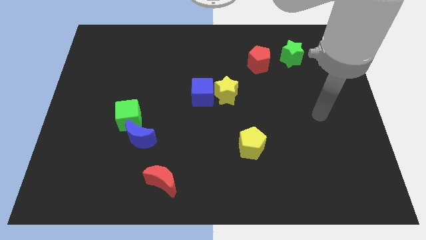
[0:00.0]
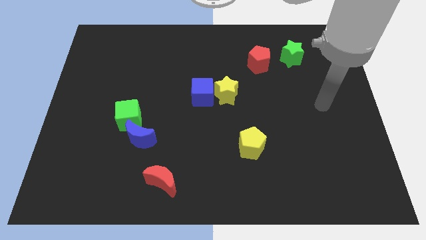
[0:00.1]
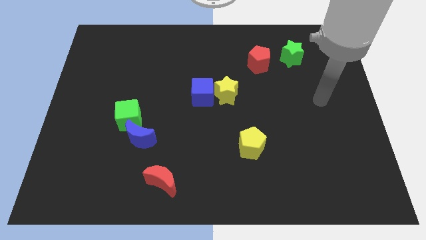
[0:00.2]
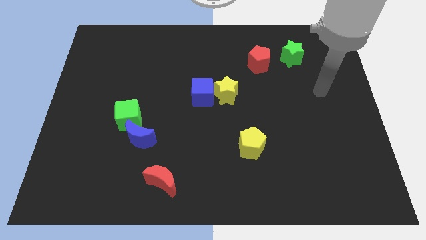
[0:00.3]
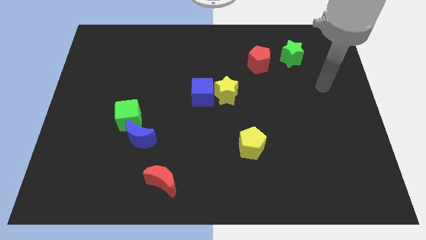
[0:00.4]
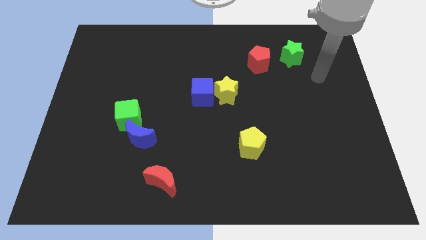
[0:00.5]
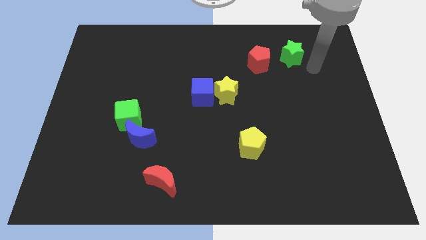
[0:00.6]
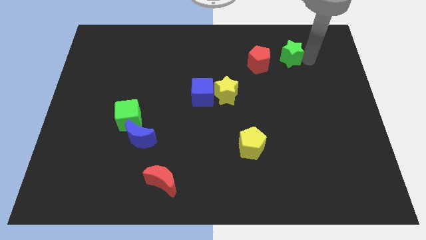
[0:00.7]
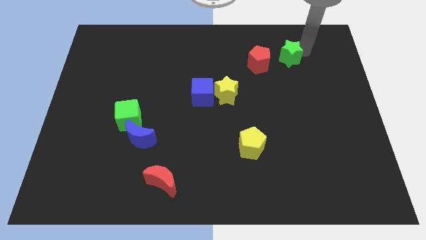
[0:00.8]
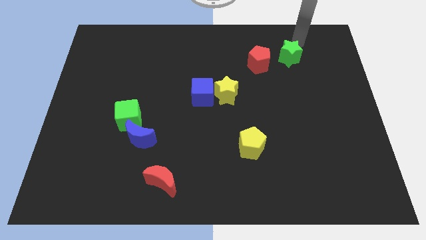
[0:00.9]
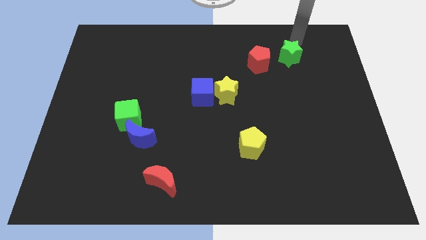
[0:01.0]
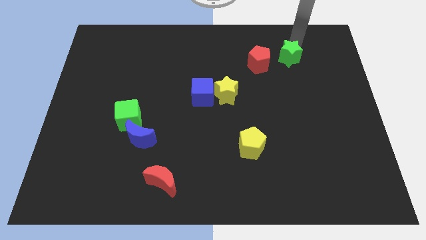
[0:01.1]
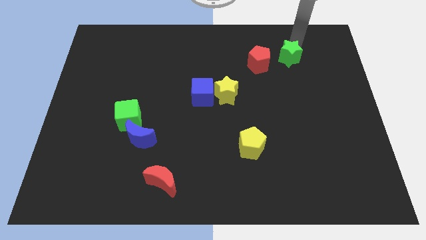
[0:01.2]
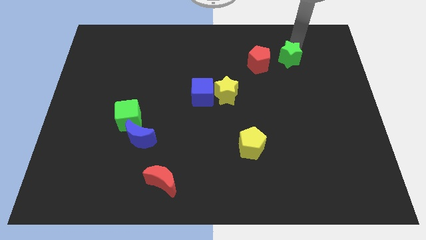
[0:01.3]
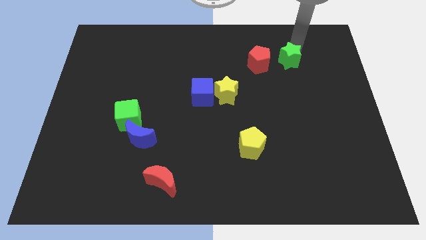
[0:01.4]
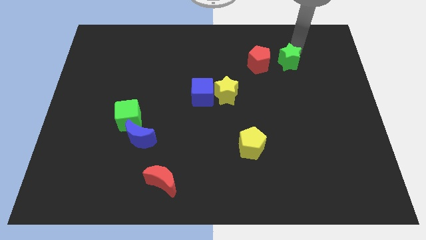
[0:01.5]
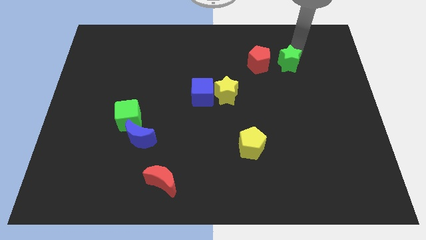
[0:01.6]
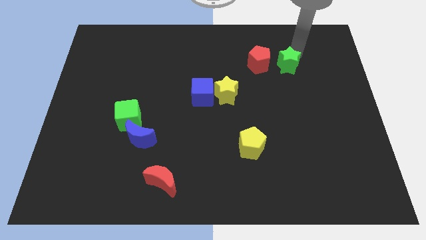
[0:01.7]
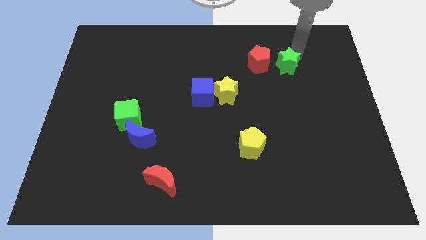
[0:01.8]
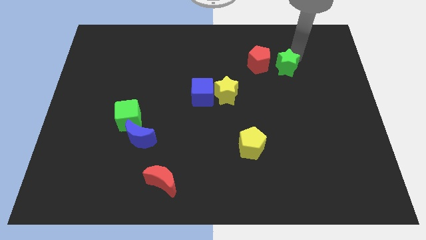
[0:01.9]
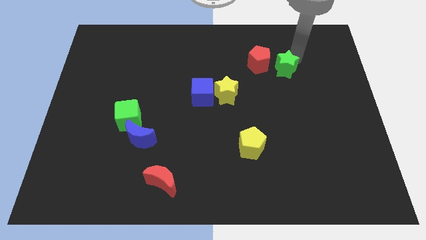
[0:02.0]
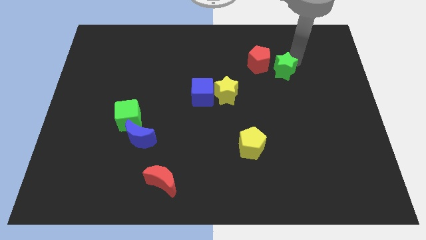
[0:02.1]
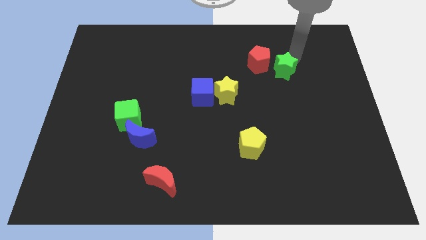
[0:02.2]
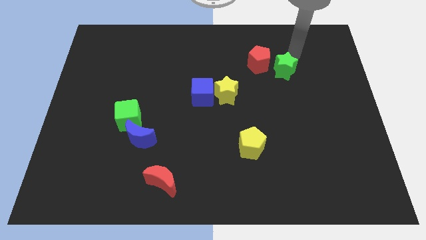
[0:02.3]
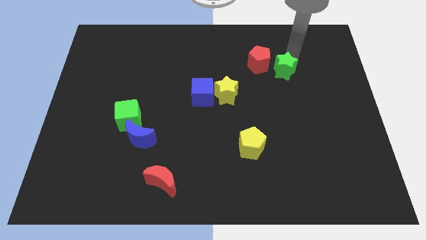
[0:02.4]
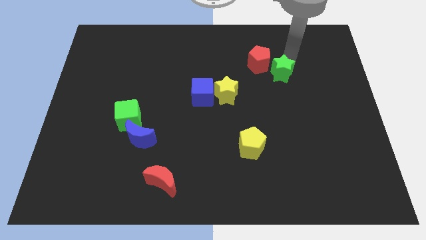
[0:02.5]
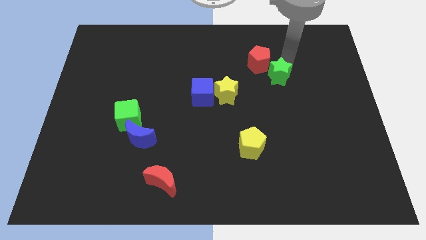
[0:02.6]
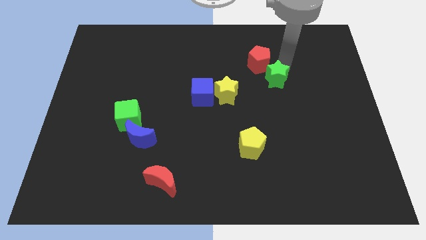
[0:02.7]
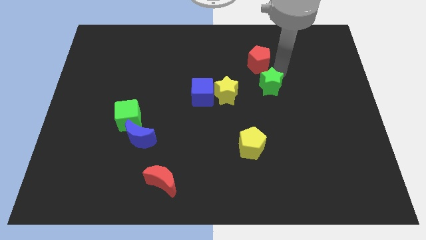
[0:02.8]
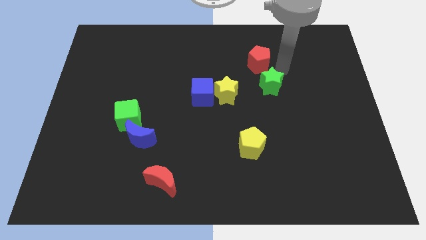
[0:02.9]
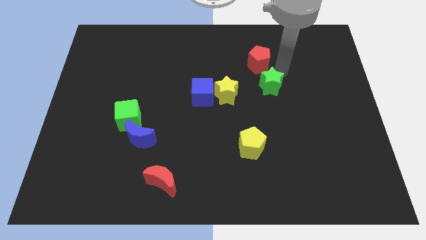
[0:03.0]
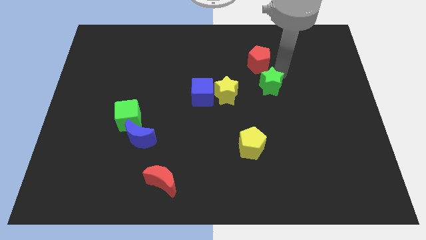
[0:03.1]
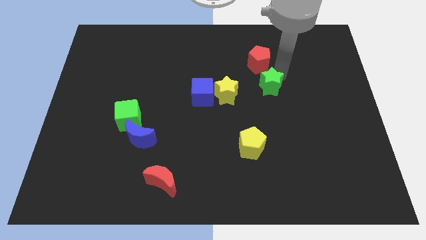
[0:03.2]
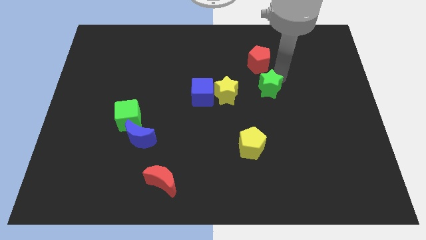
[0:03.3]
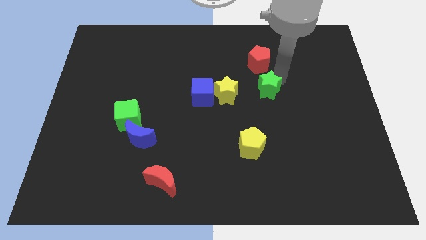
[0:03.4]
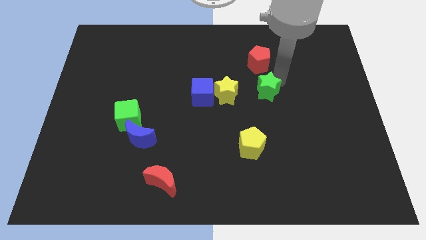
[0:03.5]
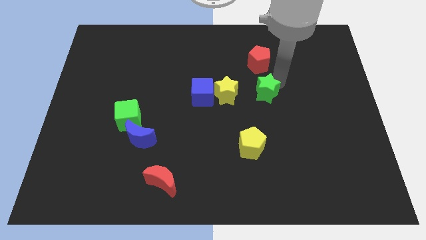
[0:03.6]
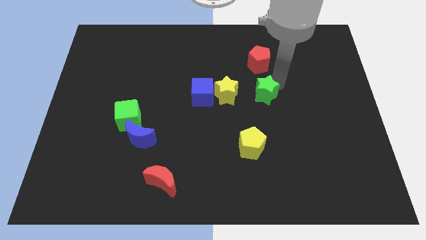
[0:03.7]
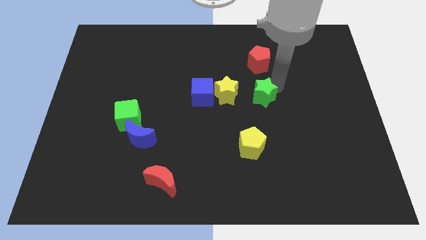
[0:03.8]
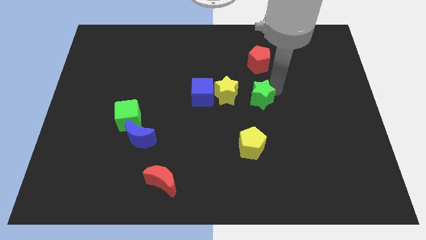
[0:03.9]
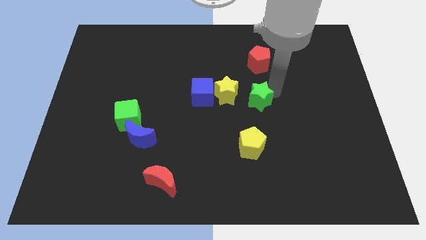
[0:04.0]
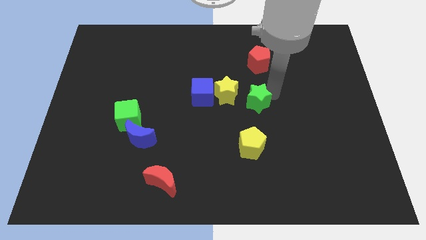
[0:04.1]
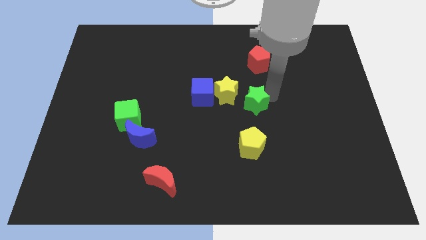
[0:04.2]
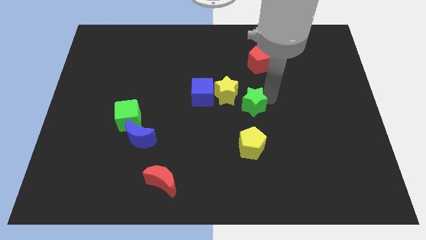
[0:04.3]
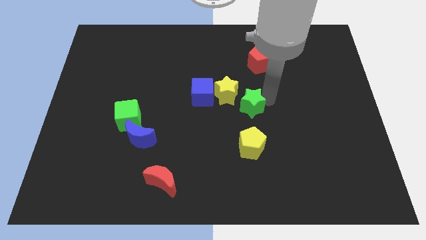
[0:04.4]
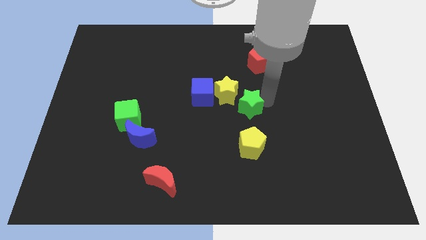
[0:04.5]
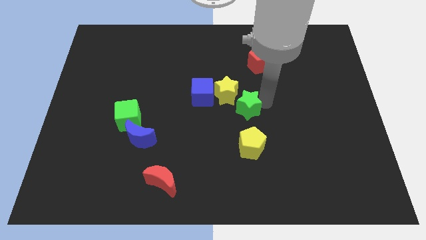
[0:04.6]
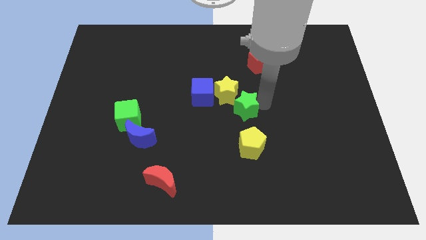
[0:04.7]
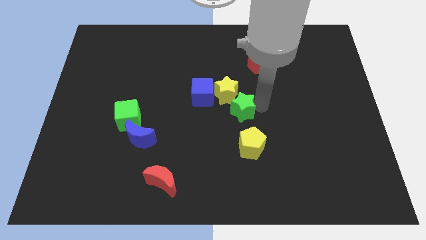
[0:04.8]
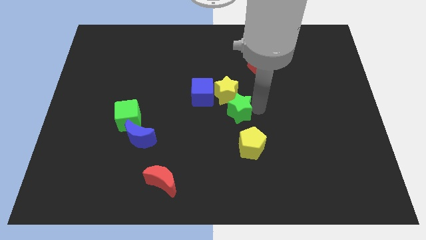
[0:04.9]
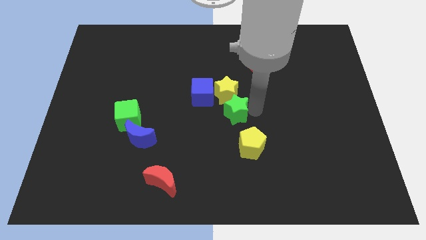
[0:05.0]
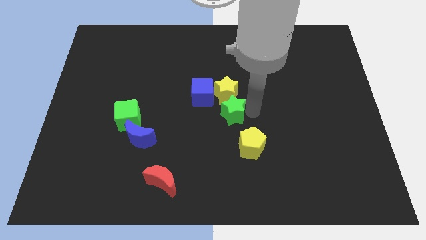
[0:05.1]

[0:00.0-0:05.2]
push the green star diagonally down and to the left of the yellow star

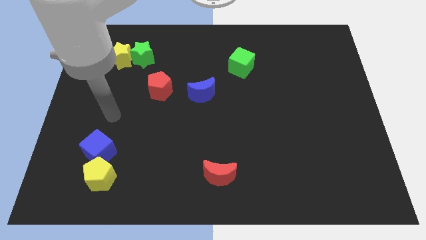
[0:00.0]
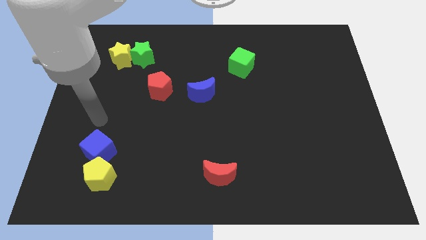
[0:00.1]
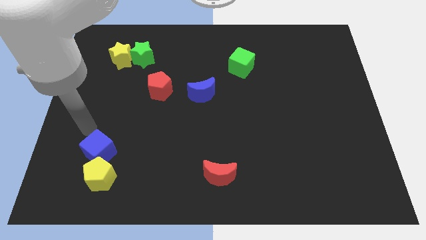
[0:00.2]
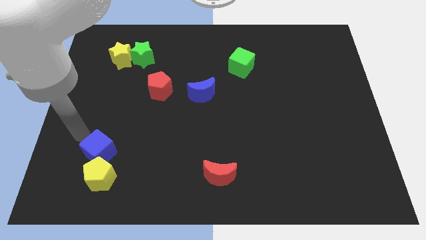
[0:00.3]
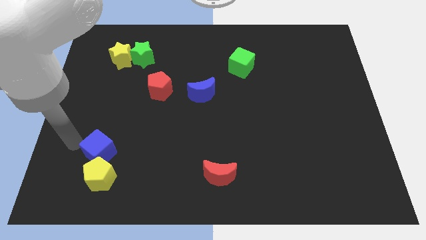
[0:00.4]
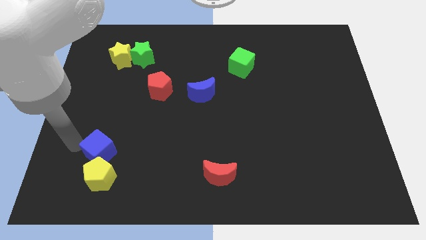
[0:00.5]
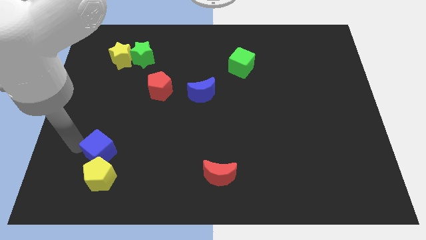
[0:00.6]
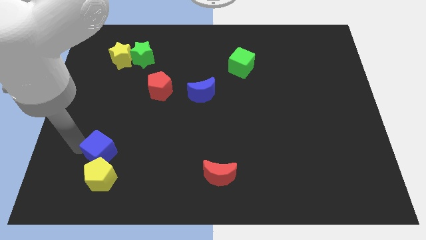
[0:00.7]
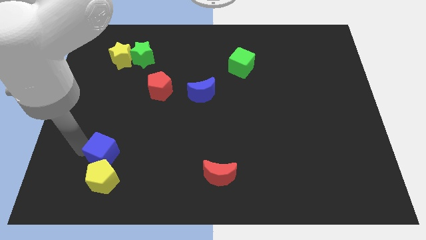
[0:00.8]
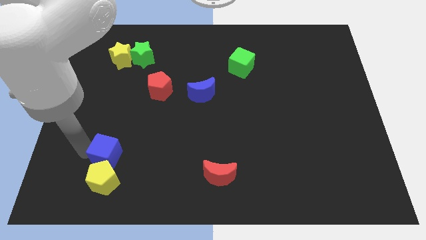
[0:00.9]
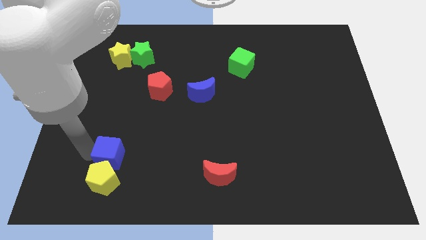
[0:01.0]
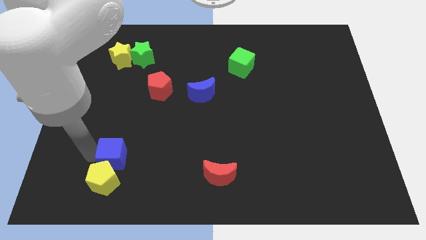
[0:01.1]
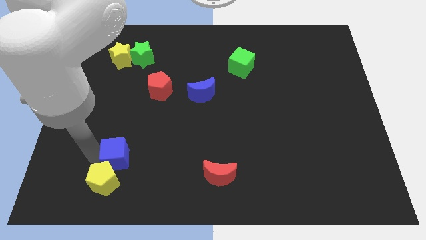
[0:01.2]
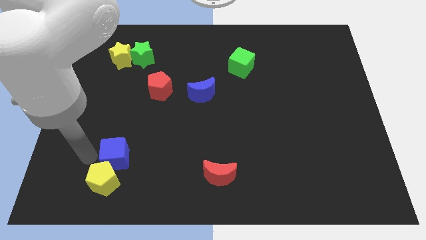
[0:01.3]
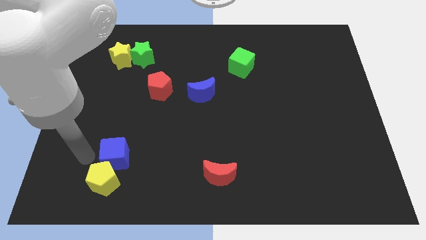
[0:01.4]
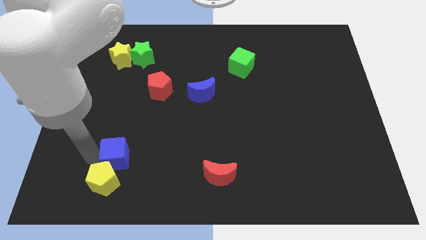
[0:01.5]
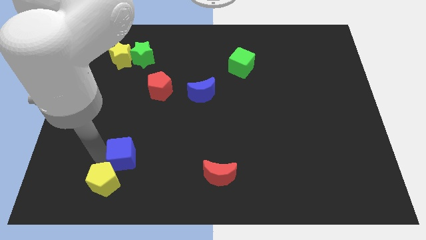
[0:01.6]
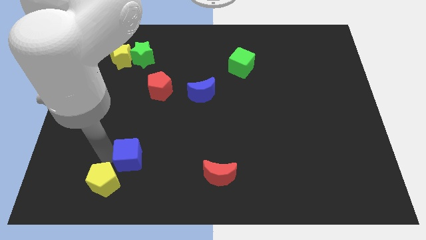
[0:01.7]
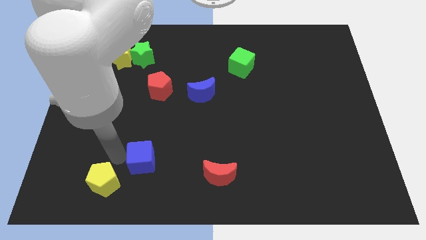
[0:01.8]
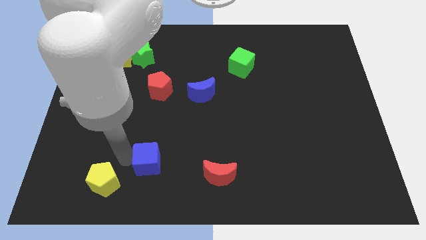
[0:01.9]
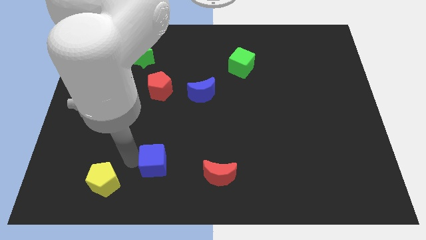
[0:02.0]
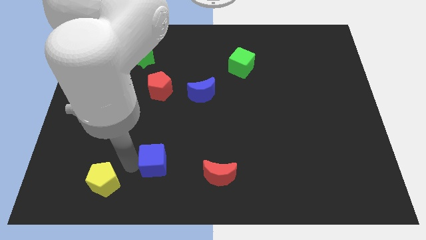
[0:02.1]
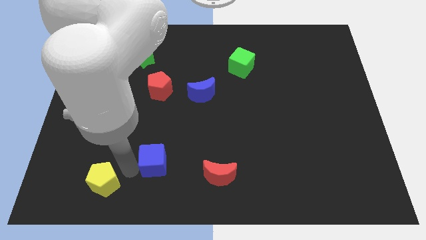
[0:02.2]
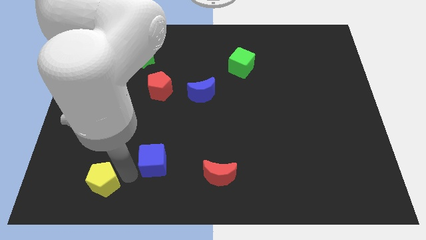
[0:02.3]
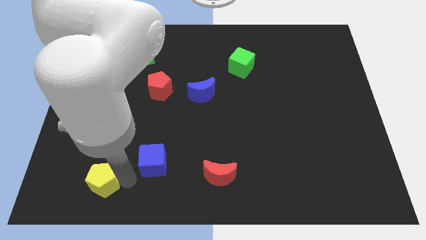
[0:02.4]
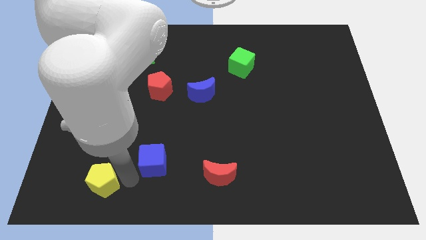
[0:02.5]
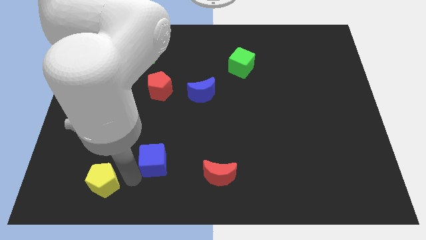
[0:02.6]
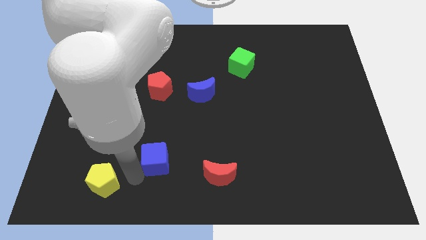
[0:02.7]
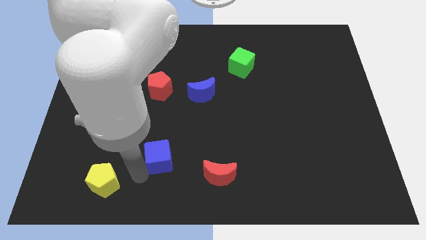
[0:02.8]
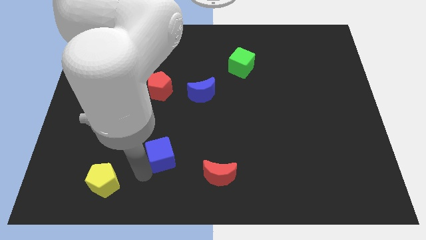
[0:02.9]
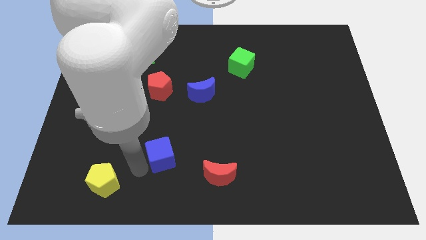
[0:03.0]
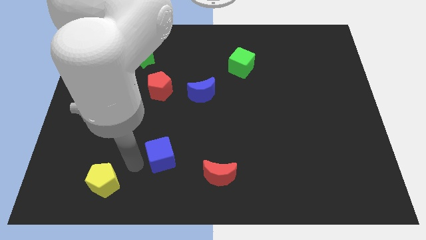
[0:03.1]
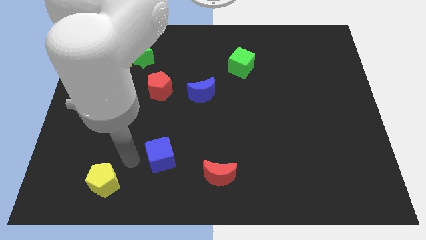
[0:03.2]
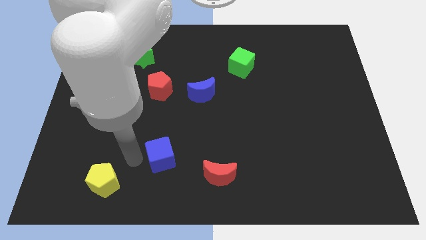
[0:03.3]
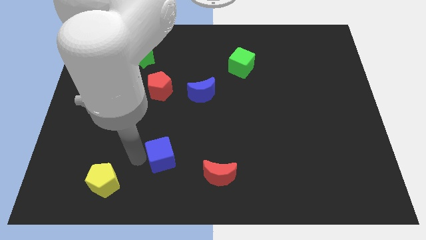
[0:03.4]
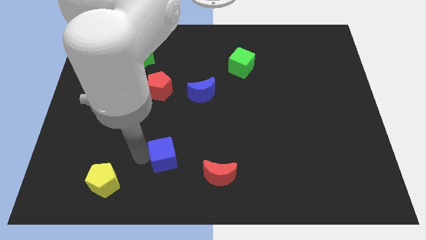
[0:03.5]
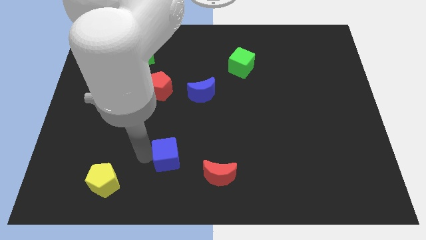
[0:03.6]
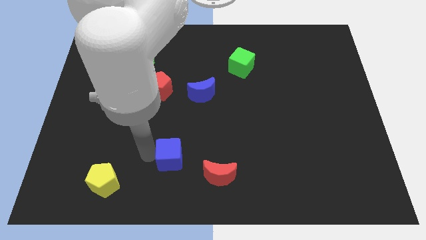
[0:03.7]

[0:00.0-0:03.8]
put the blue cube to the top left side of the red moon
